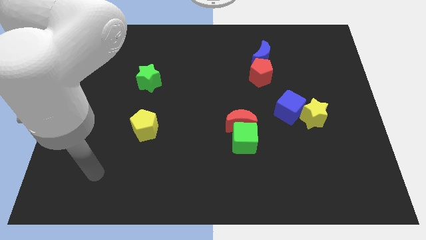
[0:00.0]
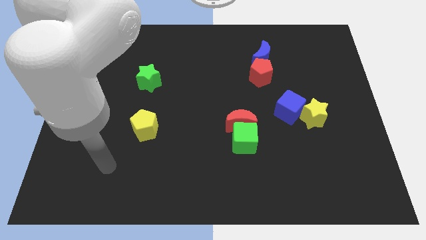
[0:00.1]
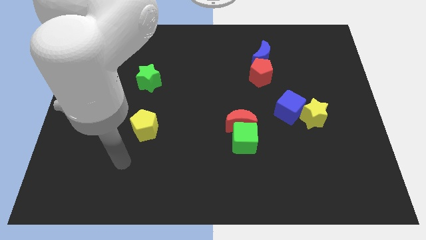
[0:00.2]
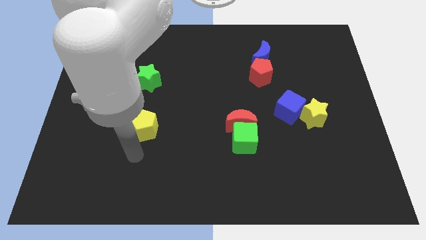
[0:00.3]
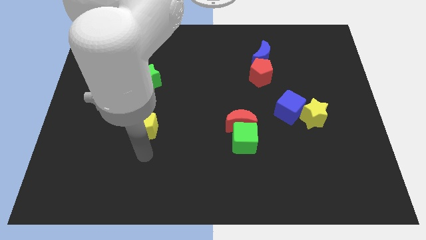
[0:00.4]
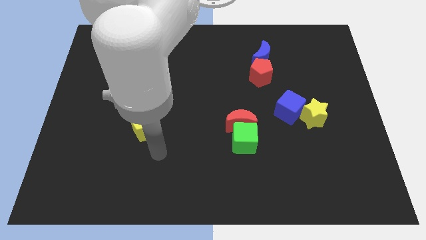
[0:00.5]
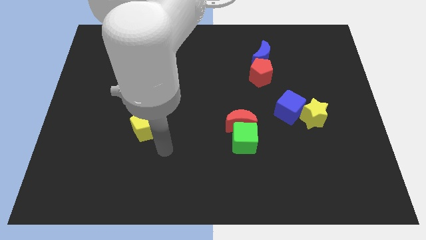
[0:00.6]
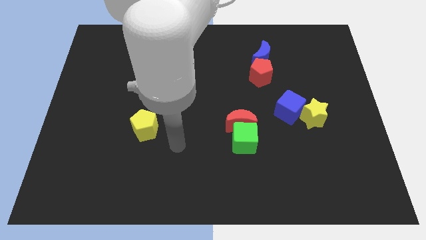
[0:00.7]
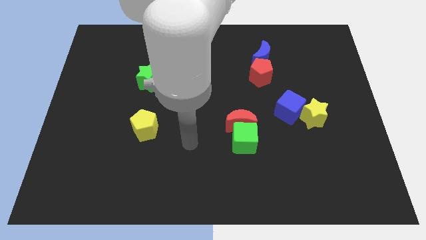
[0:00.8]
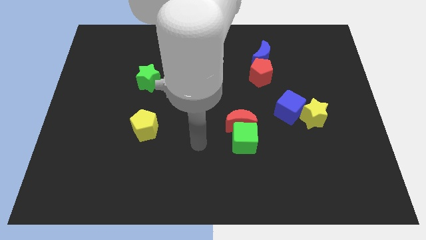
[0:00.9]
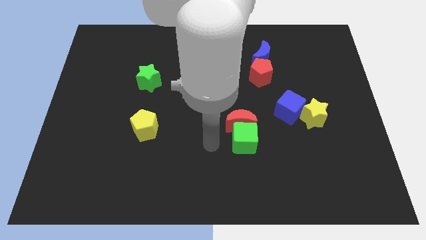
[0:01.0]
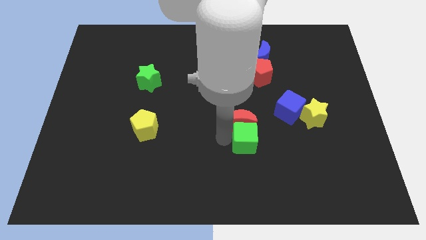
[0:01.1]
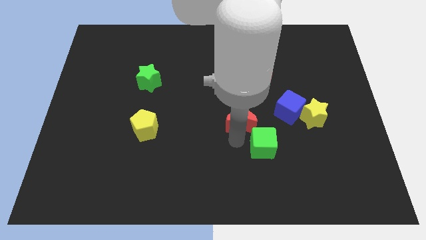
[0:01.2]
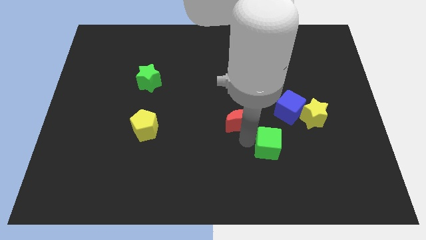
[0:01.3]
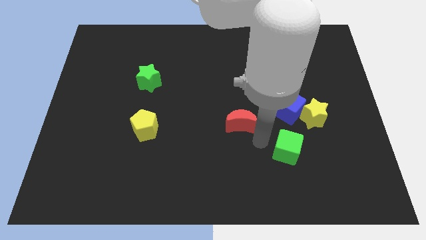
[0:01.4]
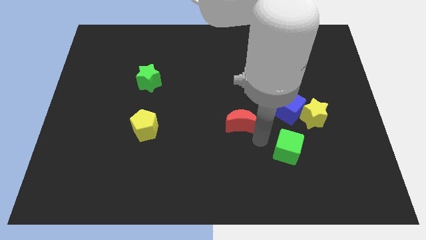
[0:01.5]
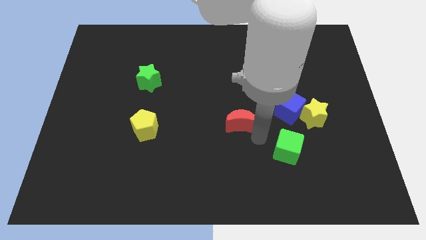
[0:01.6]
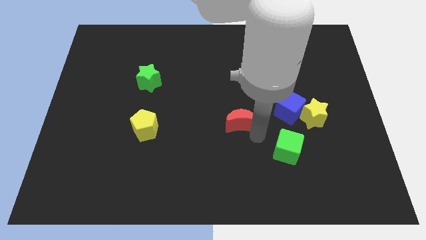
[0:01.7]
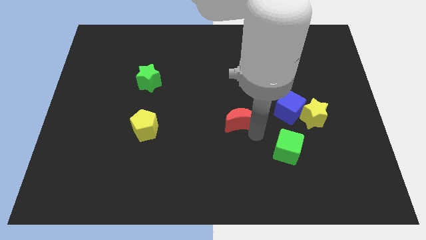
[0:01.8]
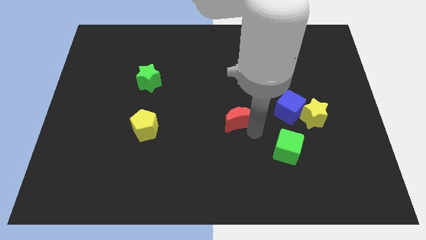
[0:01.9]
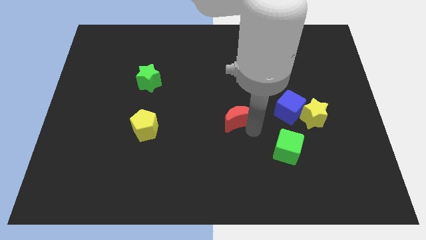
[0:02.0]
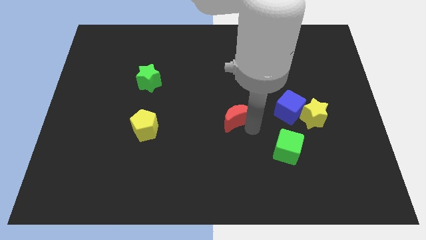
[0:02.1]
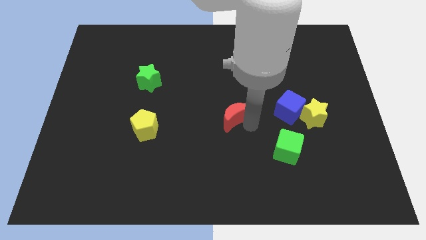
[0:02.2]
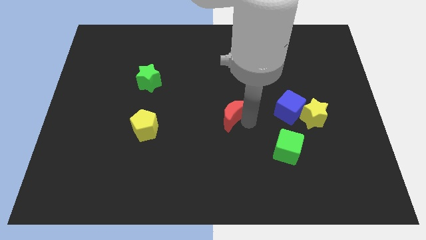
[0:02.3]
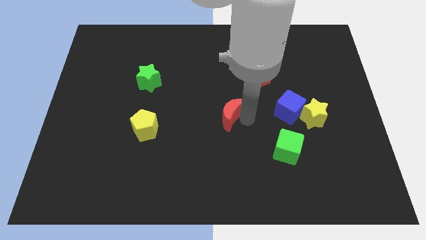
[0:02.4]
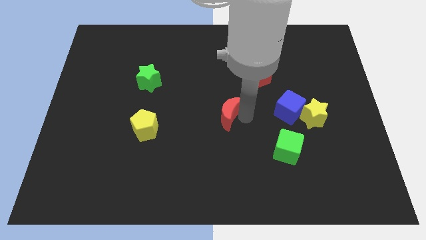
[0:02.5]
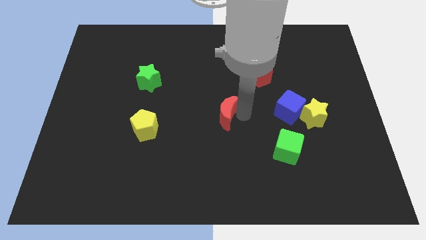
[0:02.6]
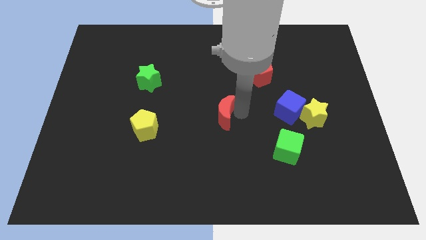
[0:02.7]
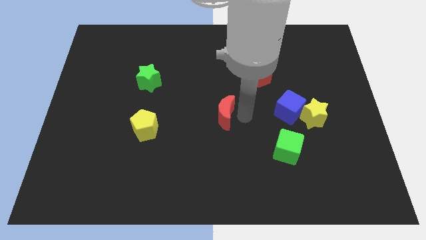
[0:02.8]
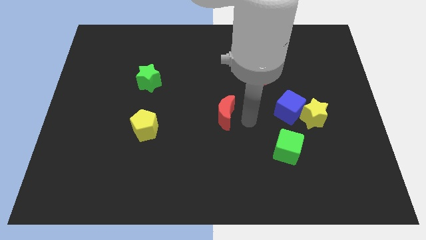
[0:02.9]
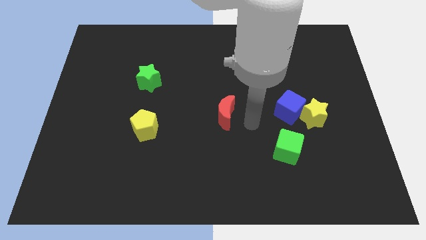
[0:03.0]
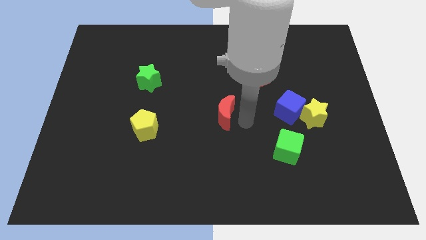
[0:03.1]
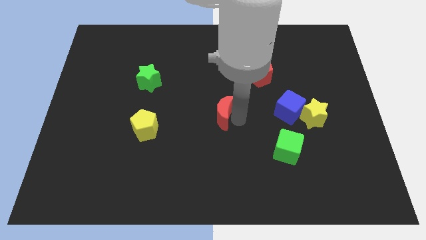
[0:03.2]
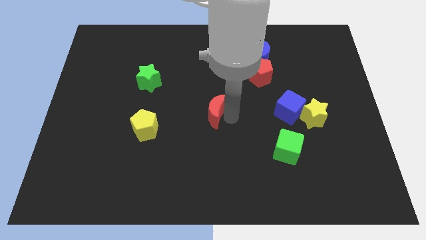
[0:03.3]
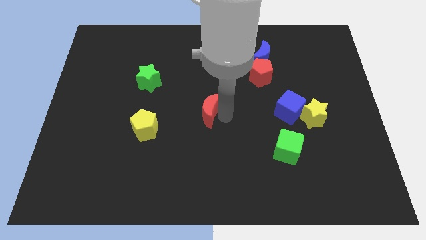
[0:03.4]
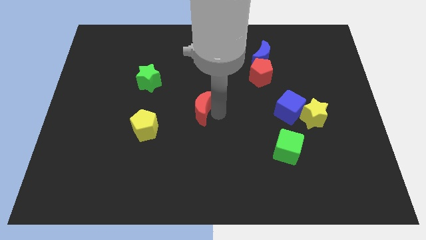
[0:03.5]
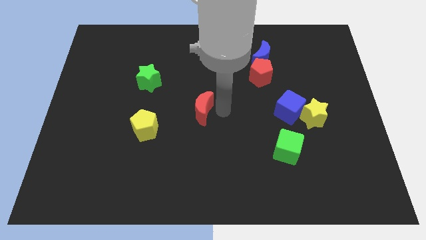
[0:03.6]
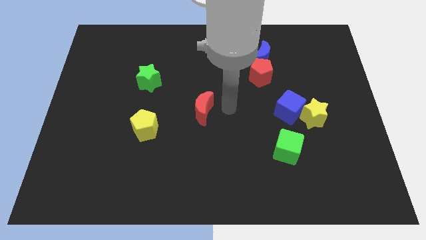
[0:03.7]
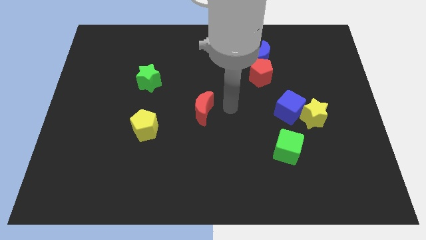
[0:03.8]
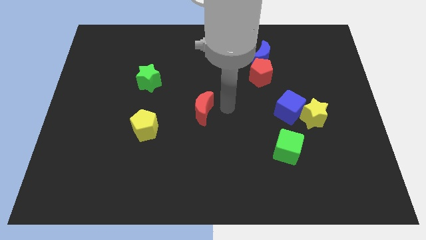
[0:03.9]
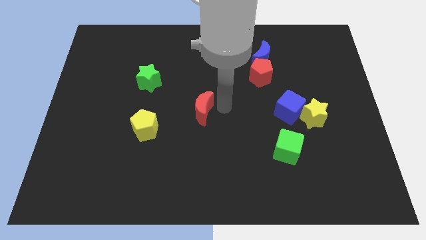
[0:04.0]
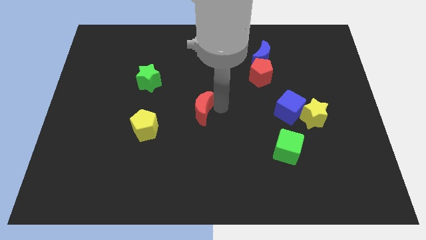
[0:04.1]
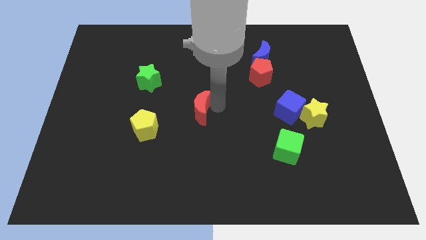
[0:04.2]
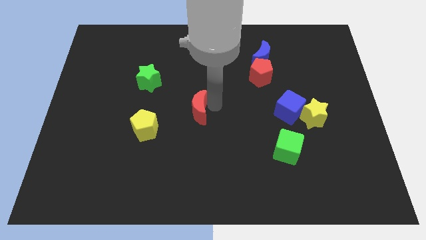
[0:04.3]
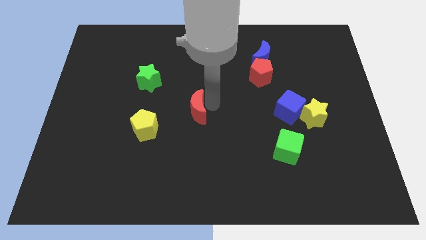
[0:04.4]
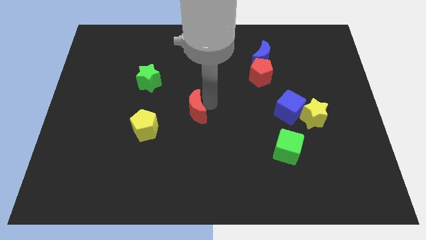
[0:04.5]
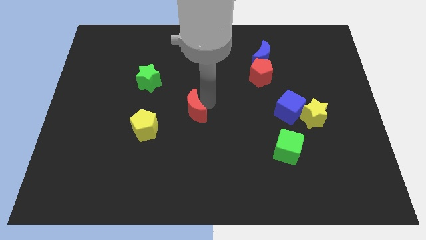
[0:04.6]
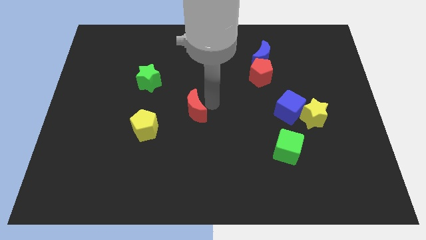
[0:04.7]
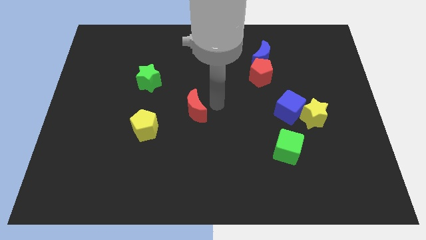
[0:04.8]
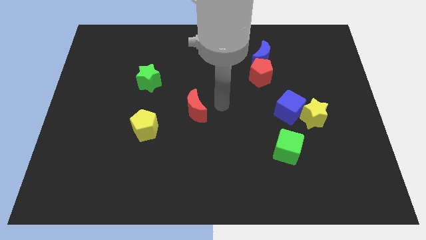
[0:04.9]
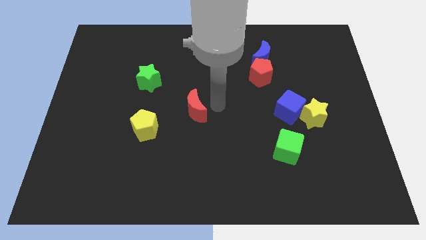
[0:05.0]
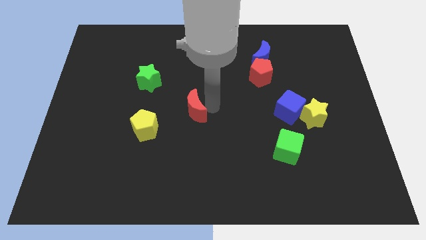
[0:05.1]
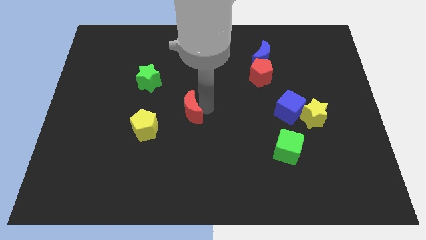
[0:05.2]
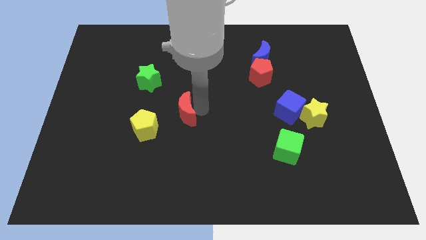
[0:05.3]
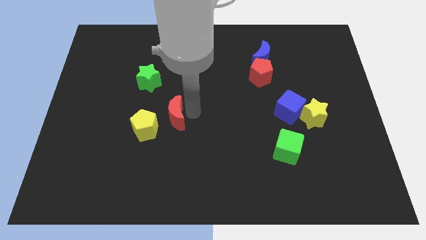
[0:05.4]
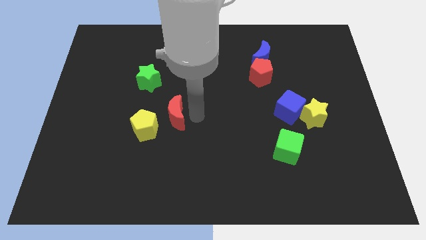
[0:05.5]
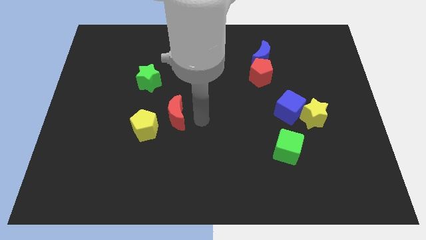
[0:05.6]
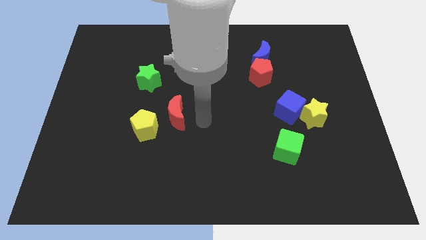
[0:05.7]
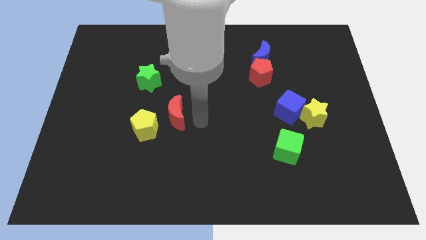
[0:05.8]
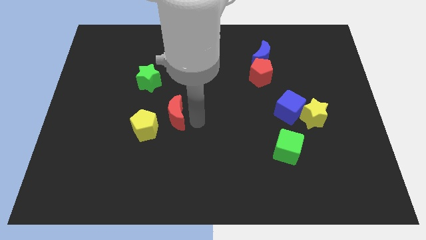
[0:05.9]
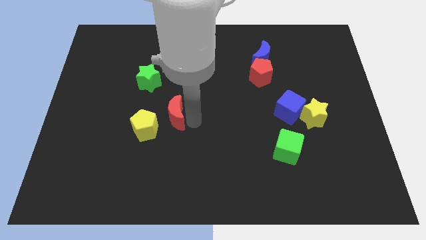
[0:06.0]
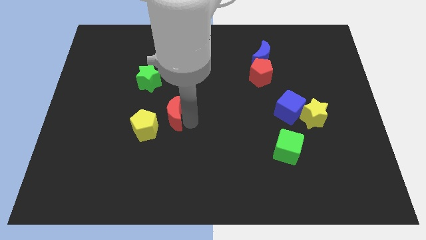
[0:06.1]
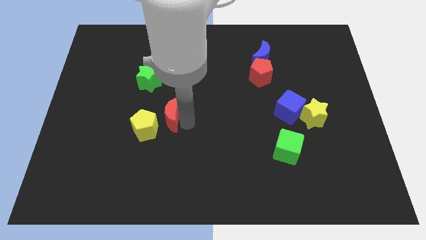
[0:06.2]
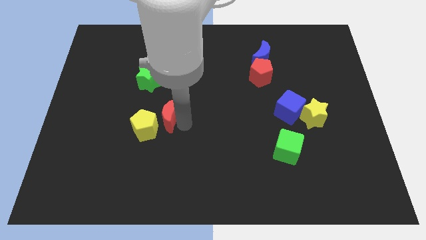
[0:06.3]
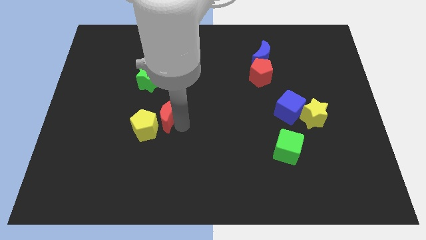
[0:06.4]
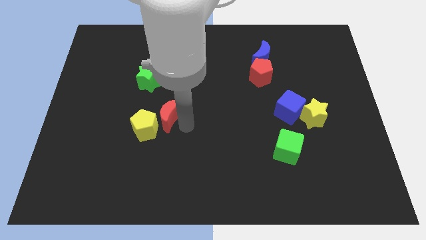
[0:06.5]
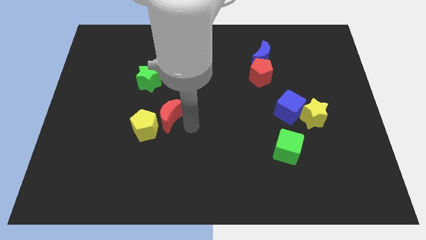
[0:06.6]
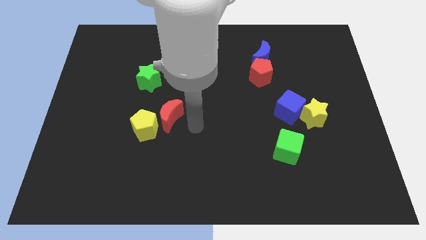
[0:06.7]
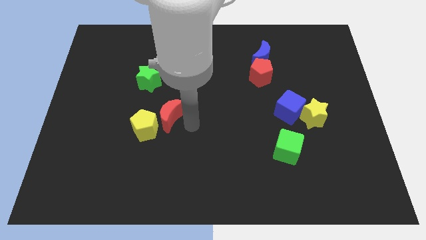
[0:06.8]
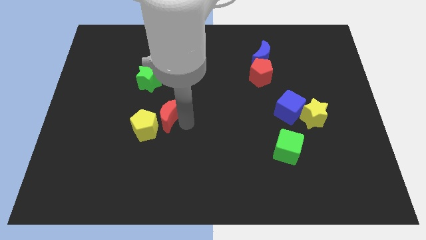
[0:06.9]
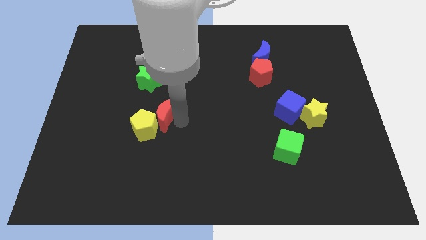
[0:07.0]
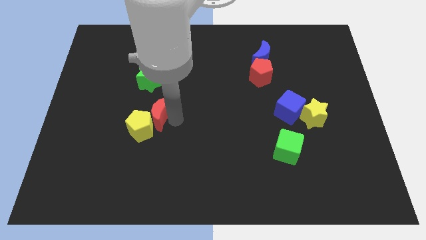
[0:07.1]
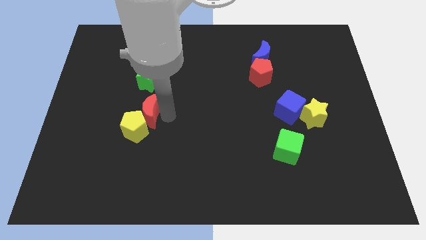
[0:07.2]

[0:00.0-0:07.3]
push the red moon left

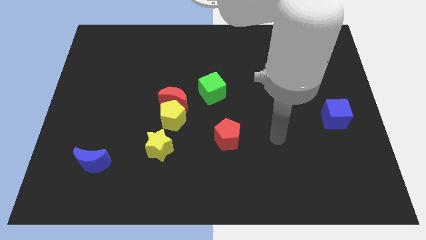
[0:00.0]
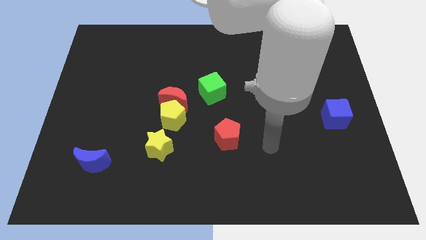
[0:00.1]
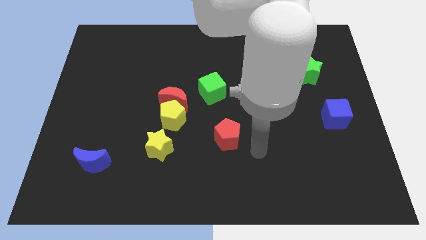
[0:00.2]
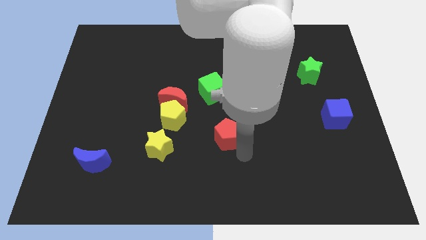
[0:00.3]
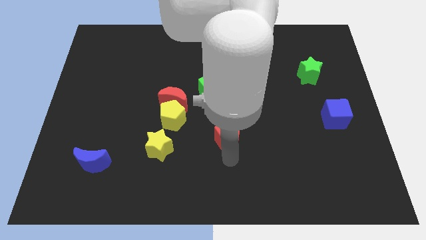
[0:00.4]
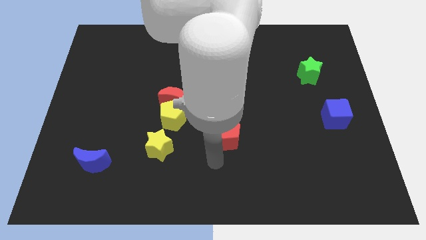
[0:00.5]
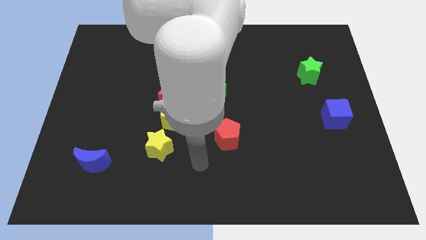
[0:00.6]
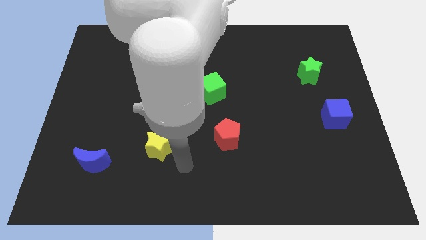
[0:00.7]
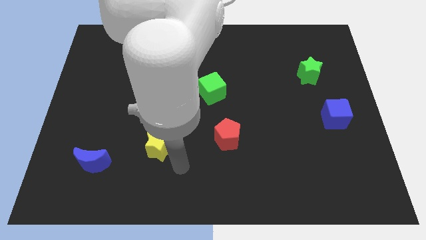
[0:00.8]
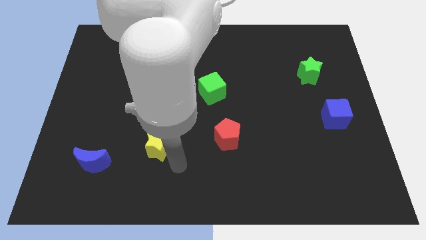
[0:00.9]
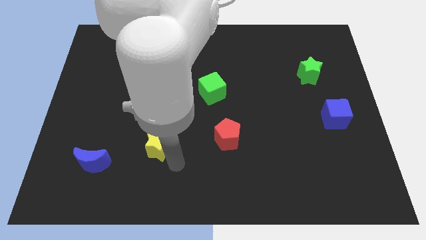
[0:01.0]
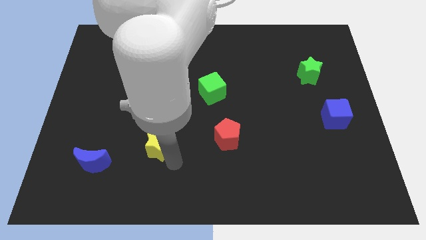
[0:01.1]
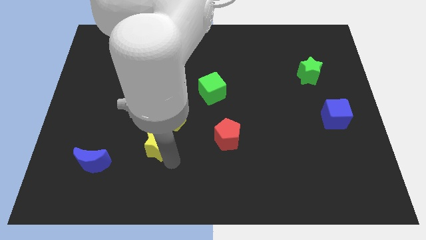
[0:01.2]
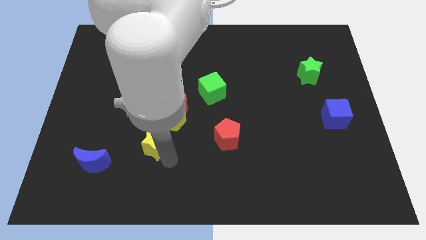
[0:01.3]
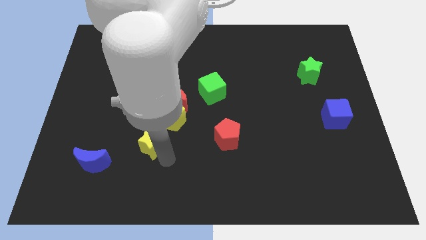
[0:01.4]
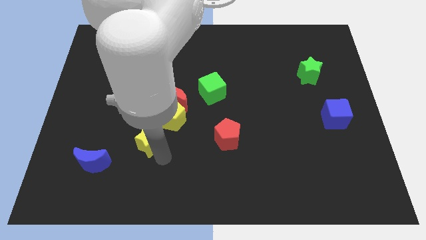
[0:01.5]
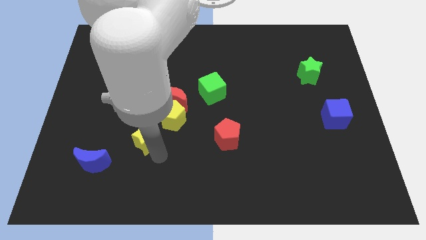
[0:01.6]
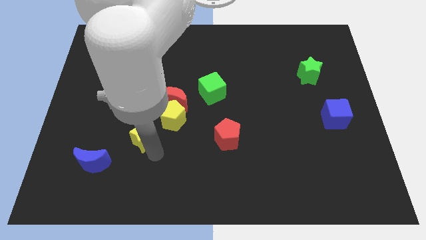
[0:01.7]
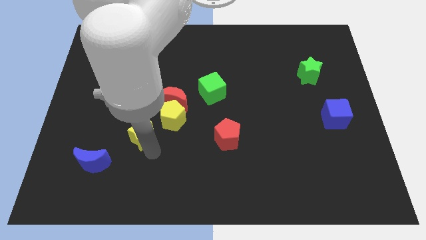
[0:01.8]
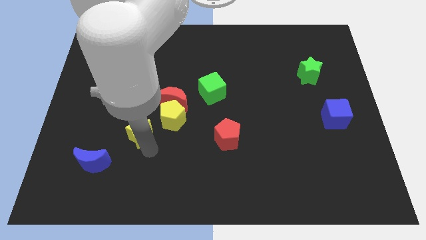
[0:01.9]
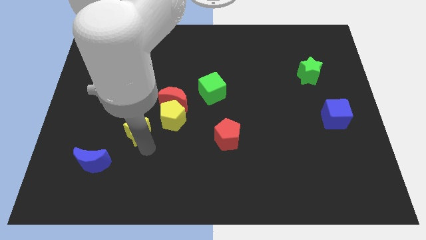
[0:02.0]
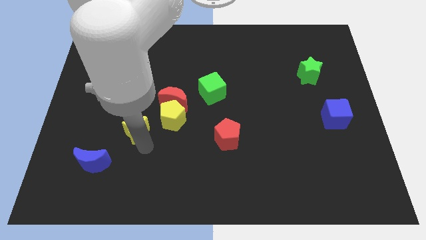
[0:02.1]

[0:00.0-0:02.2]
slide the yellow star somewhat upwards and to the left diagonally
